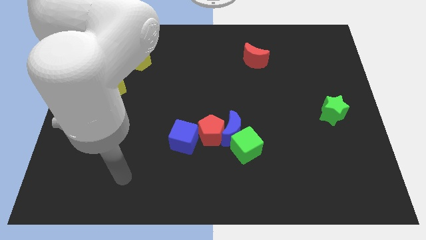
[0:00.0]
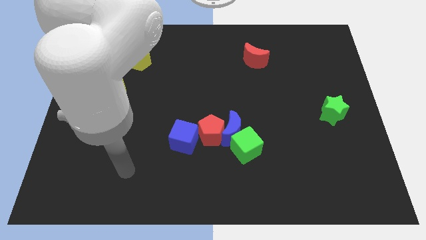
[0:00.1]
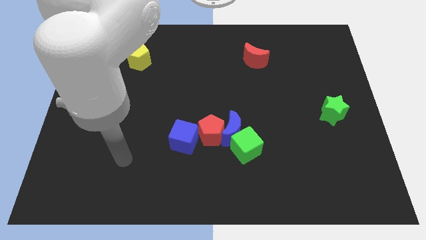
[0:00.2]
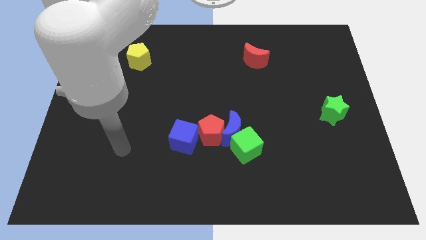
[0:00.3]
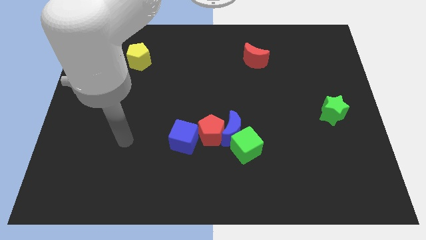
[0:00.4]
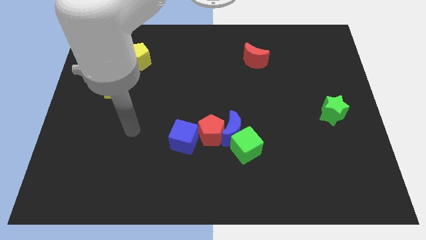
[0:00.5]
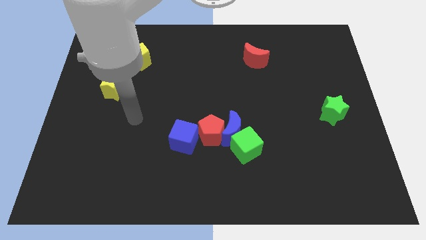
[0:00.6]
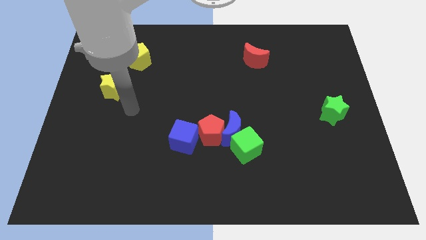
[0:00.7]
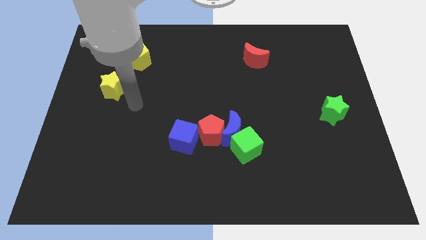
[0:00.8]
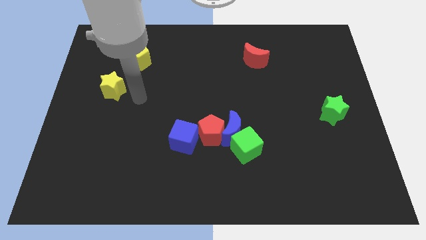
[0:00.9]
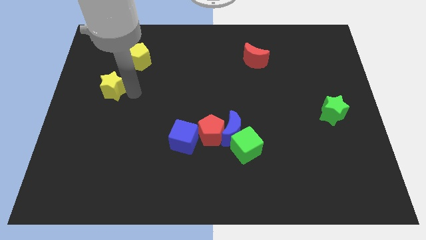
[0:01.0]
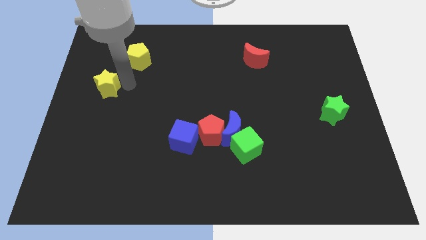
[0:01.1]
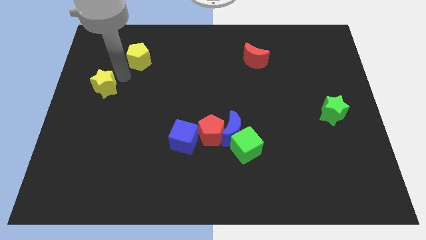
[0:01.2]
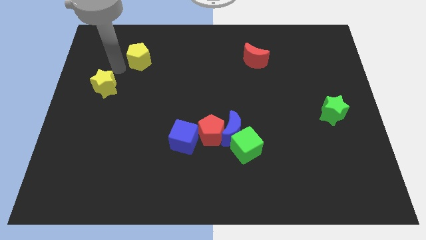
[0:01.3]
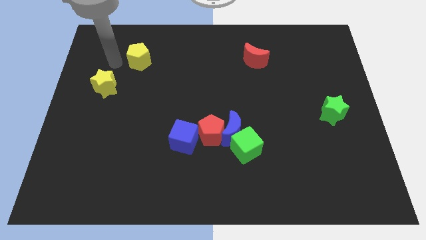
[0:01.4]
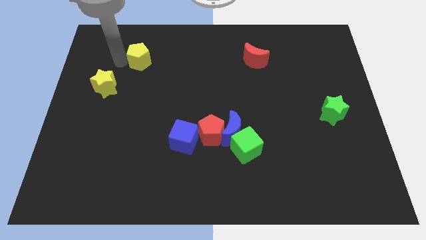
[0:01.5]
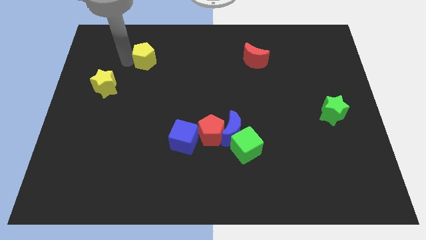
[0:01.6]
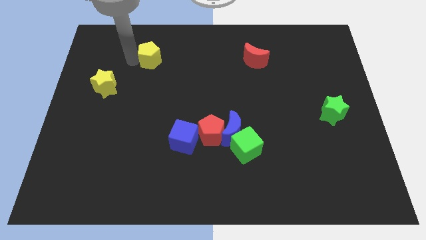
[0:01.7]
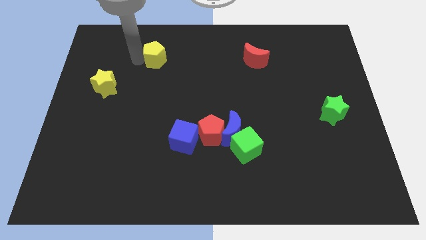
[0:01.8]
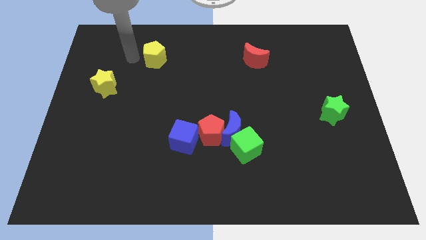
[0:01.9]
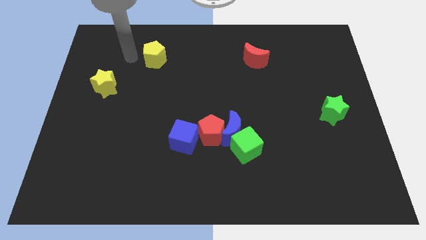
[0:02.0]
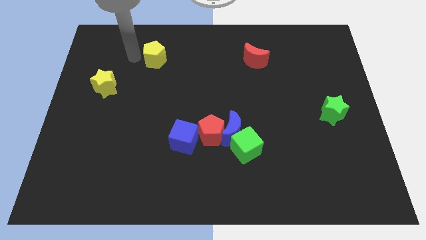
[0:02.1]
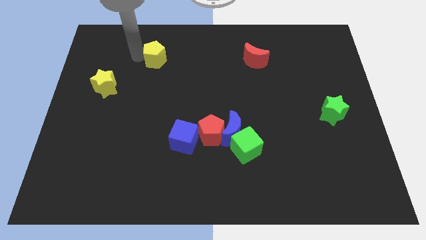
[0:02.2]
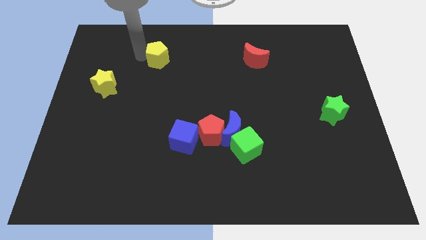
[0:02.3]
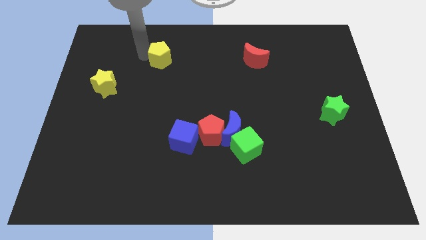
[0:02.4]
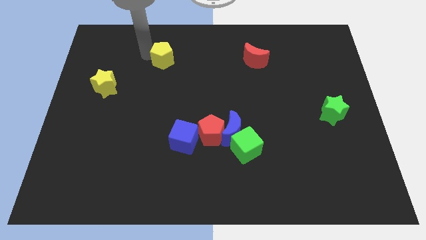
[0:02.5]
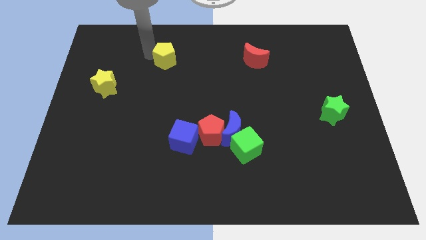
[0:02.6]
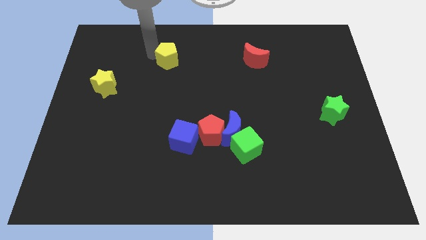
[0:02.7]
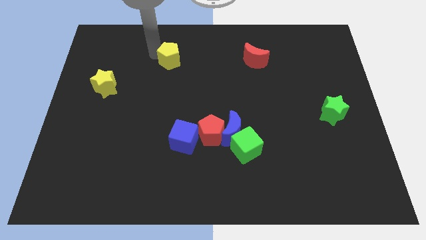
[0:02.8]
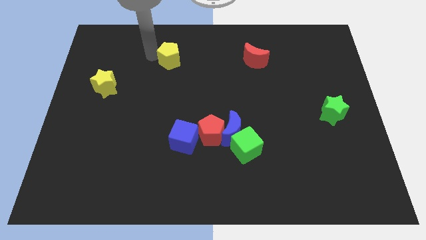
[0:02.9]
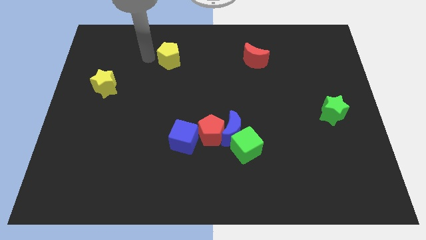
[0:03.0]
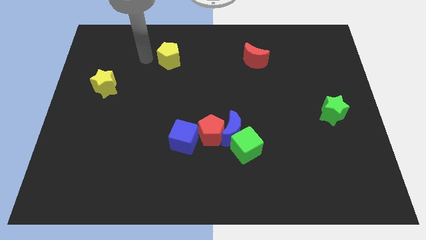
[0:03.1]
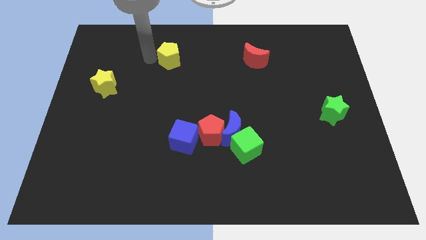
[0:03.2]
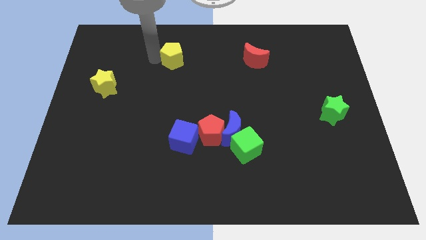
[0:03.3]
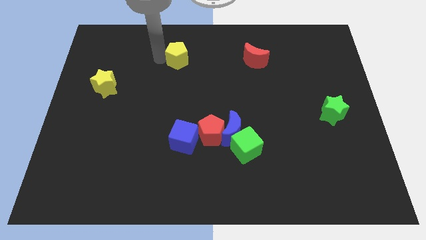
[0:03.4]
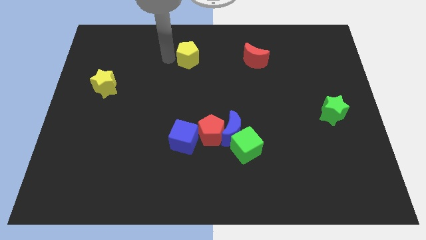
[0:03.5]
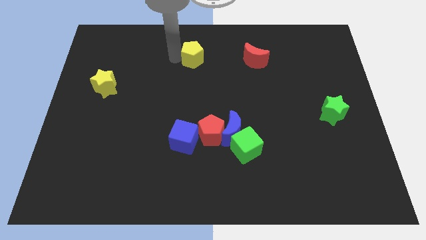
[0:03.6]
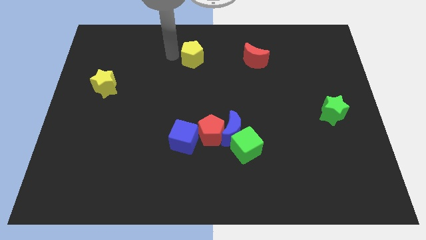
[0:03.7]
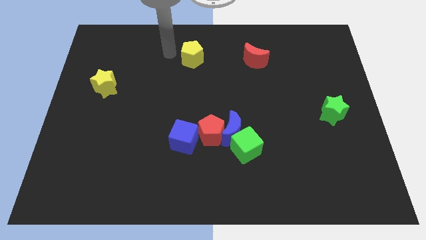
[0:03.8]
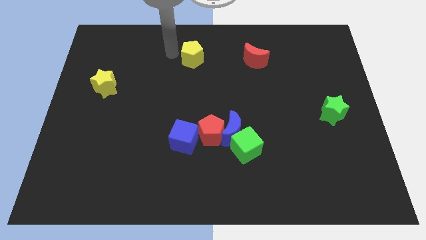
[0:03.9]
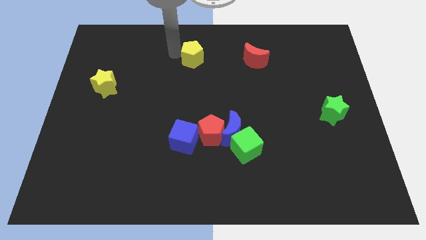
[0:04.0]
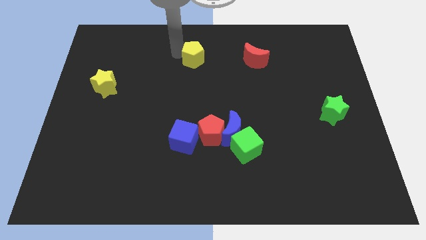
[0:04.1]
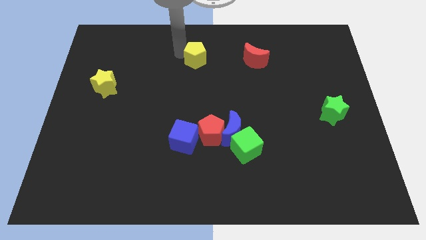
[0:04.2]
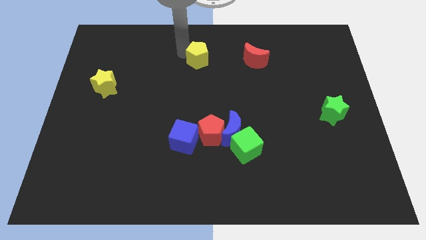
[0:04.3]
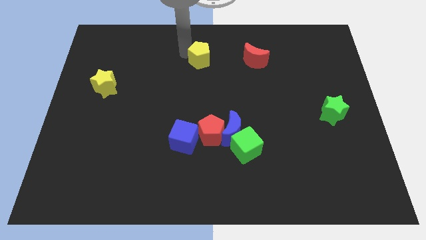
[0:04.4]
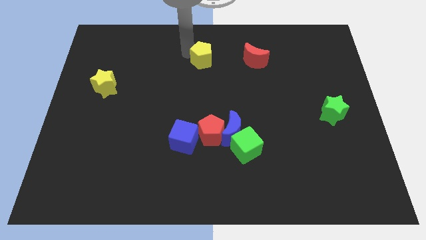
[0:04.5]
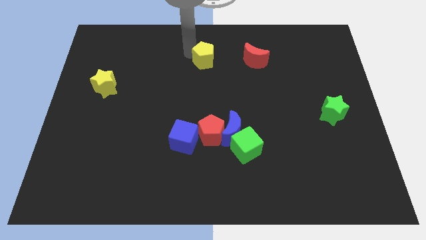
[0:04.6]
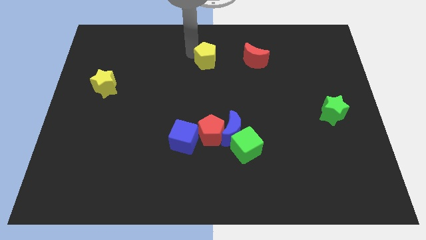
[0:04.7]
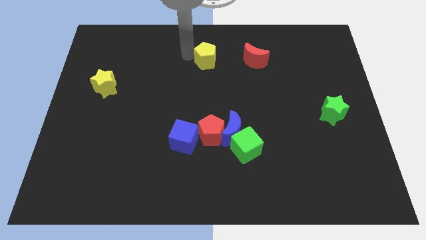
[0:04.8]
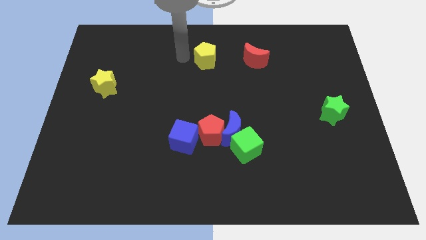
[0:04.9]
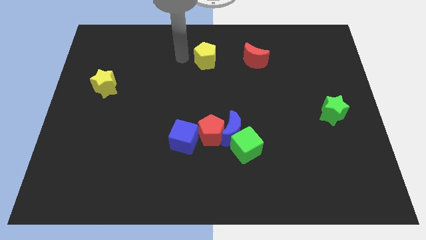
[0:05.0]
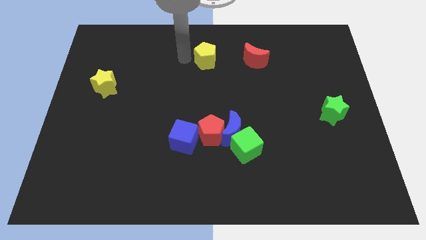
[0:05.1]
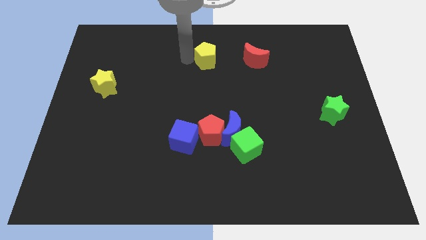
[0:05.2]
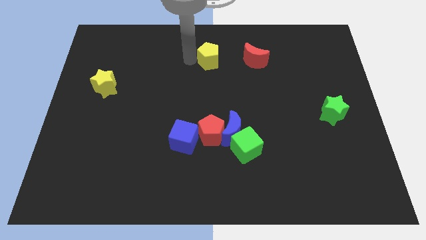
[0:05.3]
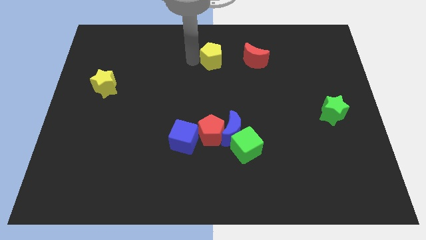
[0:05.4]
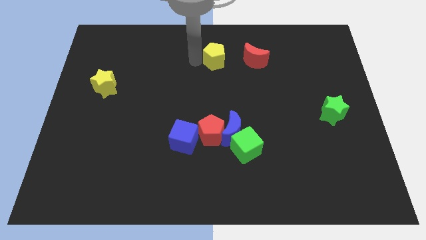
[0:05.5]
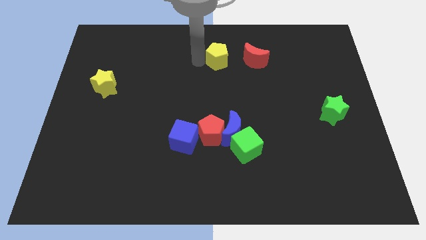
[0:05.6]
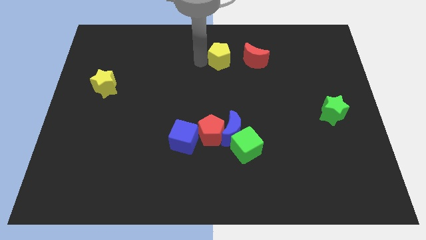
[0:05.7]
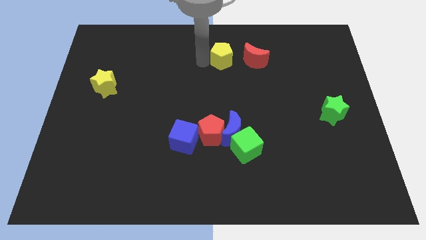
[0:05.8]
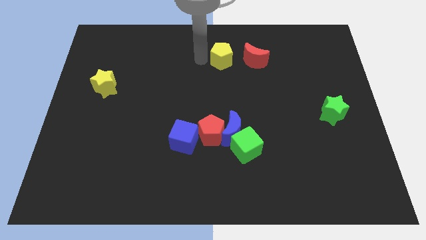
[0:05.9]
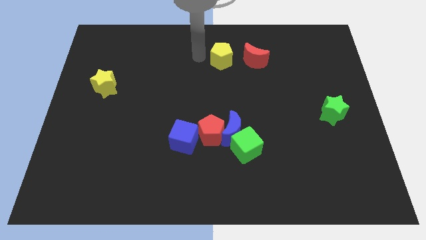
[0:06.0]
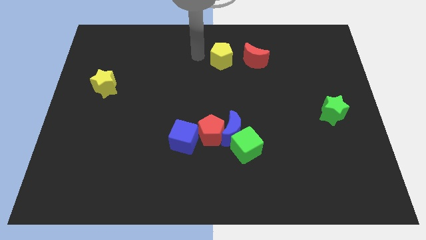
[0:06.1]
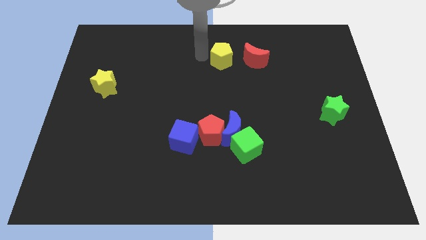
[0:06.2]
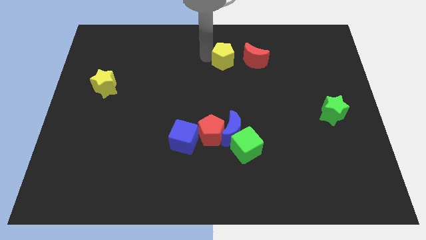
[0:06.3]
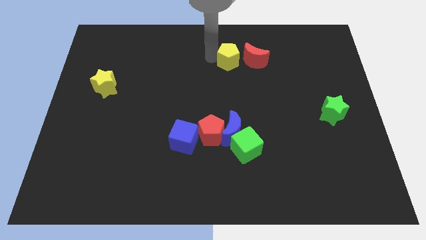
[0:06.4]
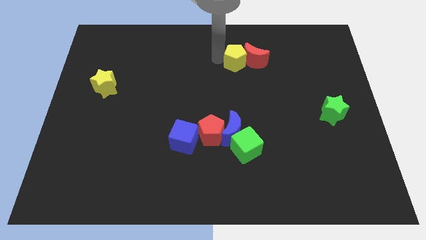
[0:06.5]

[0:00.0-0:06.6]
move the yellow pentagon next to the red moon
